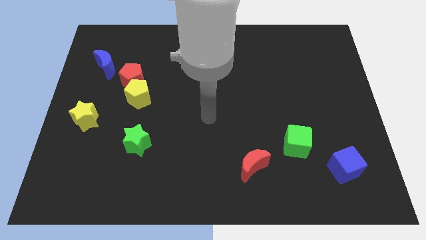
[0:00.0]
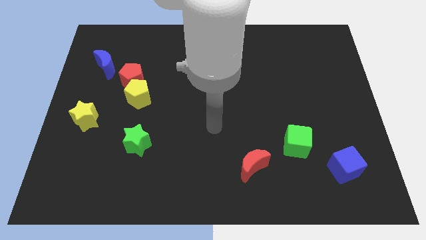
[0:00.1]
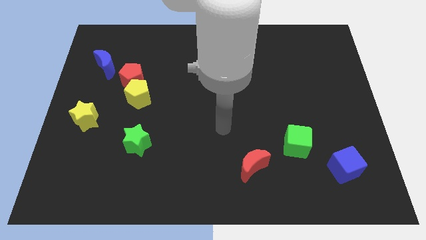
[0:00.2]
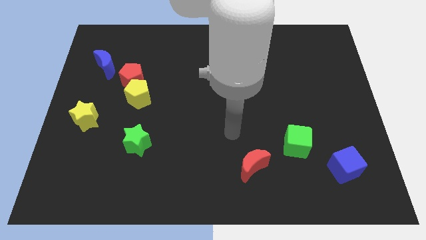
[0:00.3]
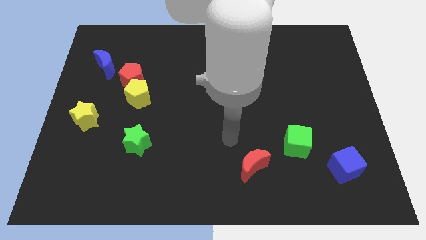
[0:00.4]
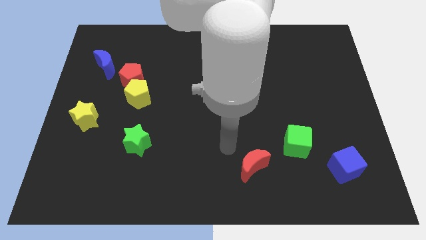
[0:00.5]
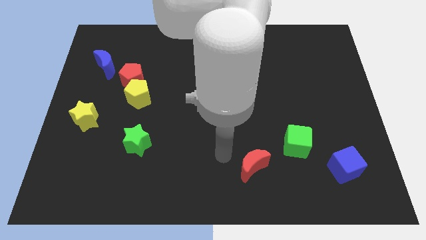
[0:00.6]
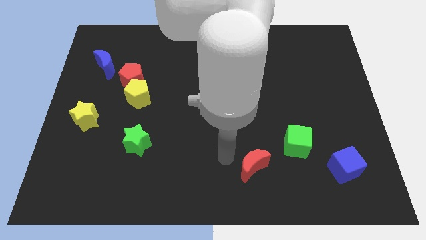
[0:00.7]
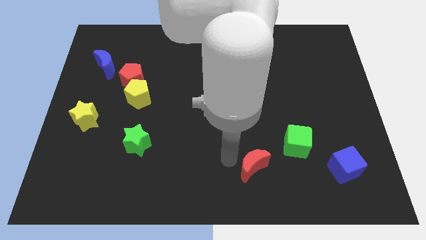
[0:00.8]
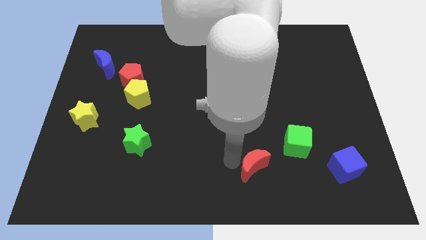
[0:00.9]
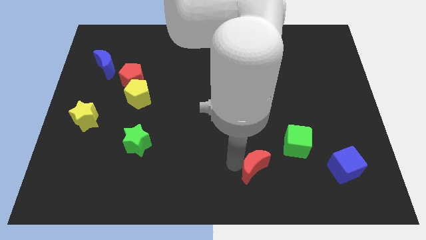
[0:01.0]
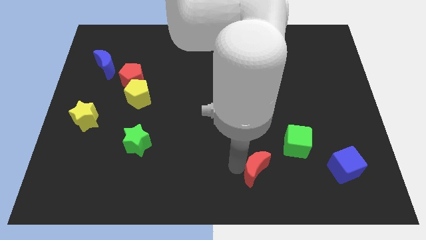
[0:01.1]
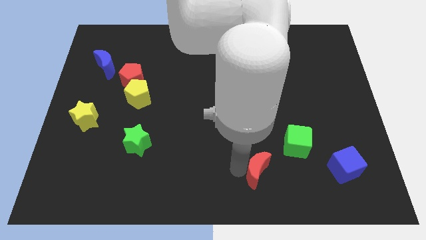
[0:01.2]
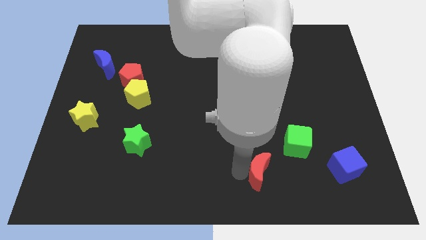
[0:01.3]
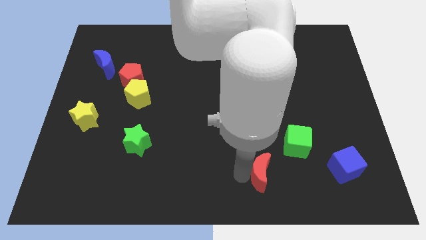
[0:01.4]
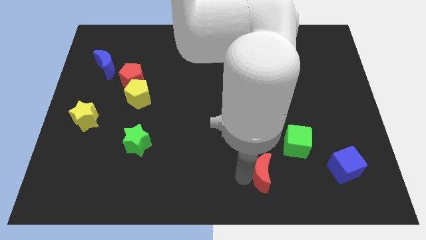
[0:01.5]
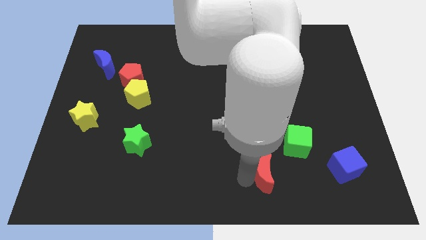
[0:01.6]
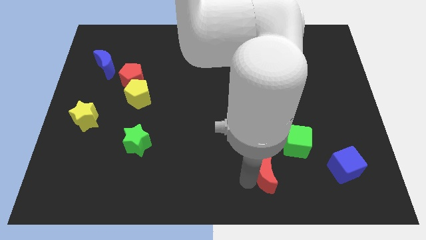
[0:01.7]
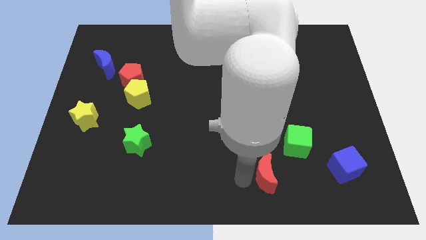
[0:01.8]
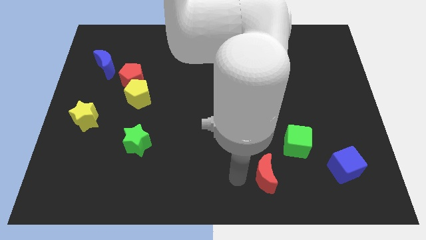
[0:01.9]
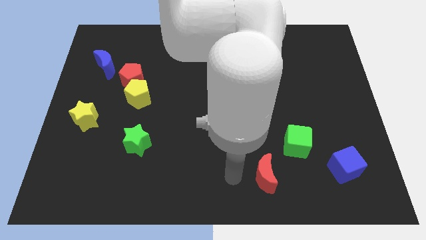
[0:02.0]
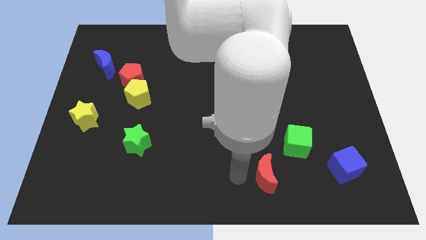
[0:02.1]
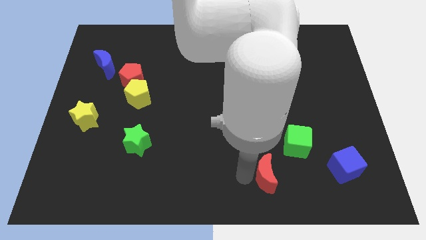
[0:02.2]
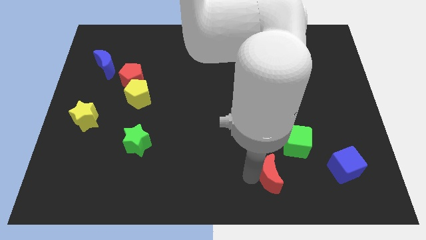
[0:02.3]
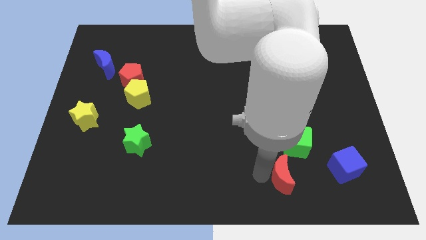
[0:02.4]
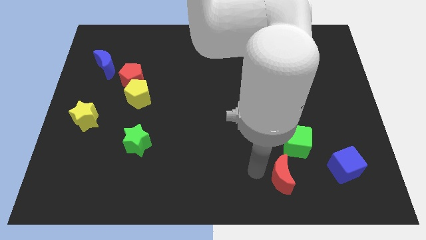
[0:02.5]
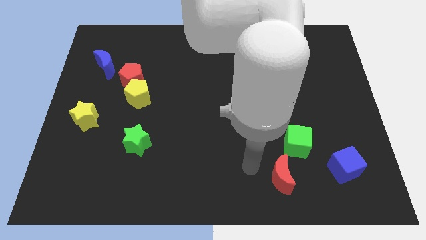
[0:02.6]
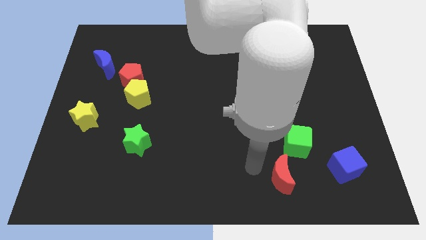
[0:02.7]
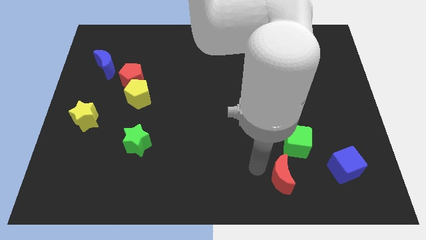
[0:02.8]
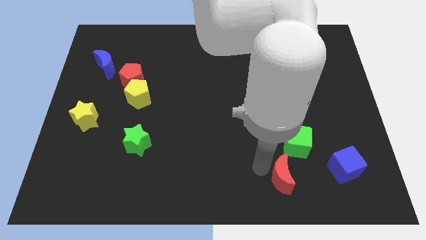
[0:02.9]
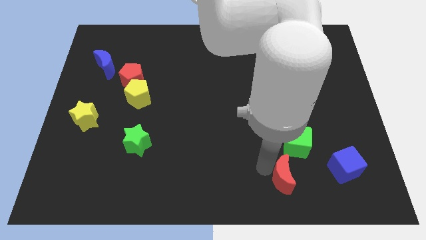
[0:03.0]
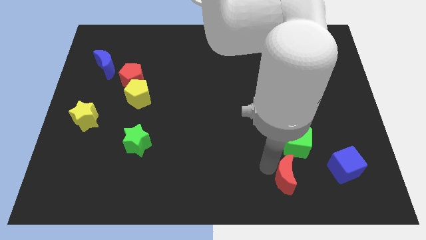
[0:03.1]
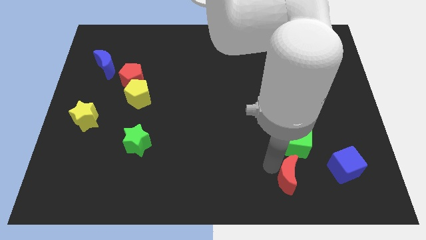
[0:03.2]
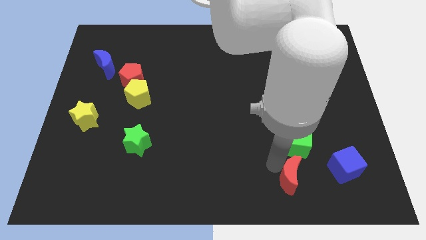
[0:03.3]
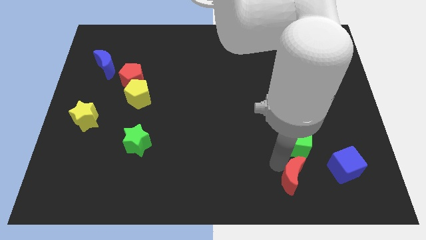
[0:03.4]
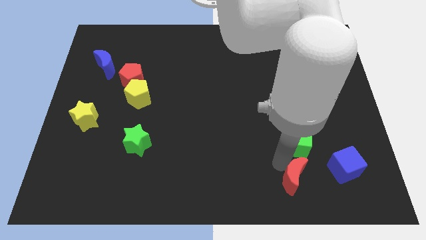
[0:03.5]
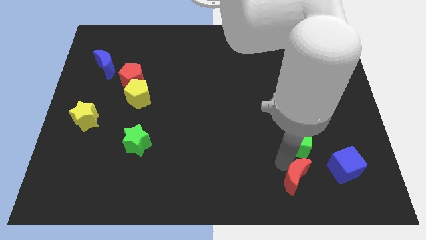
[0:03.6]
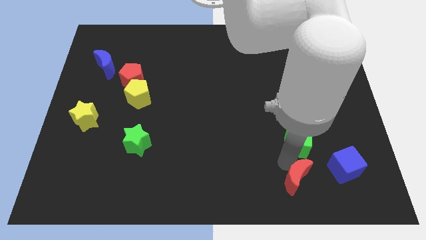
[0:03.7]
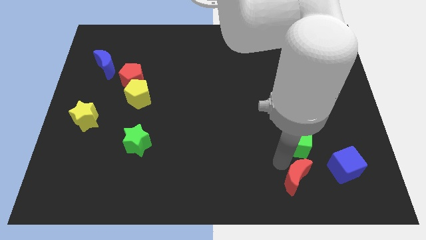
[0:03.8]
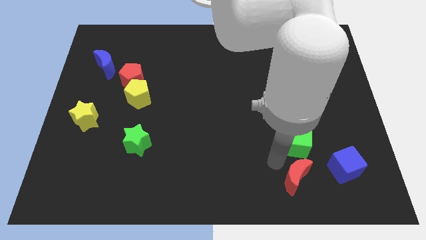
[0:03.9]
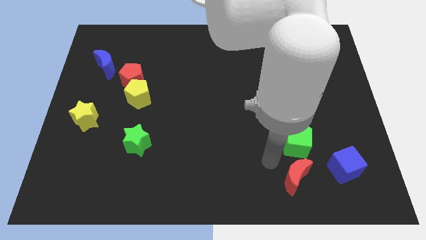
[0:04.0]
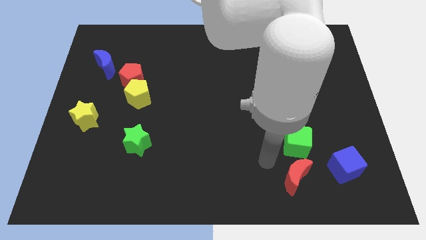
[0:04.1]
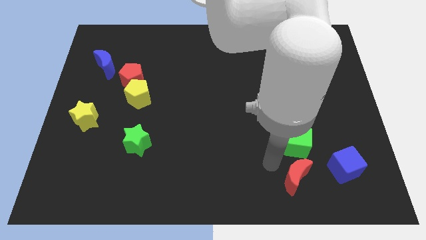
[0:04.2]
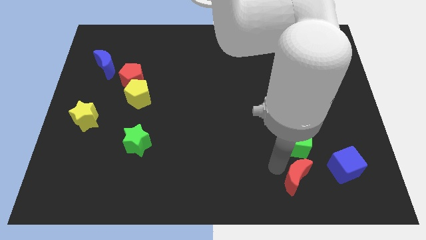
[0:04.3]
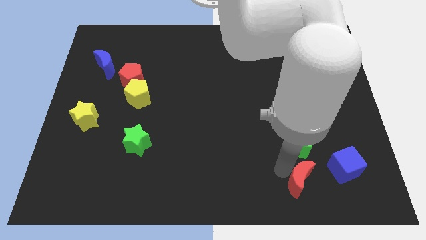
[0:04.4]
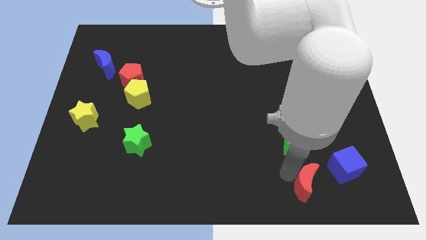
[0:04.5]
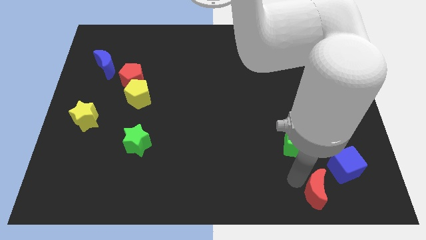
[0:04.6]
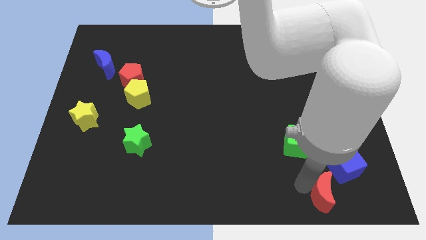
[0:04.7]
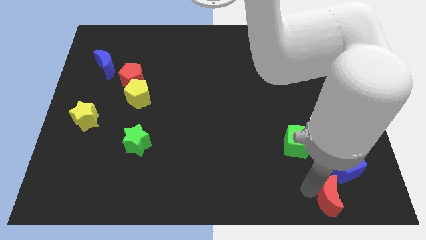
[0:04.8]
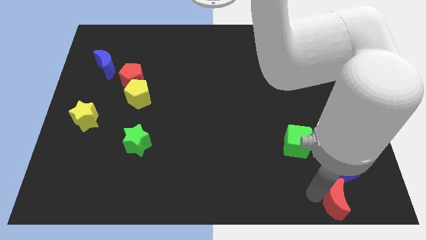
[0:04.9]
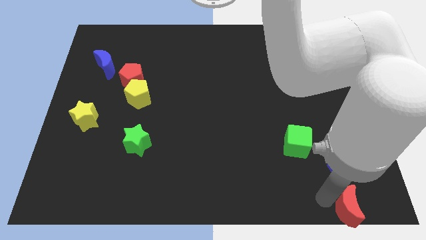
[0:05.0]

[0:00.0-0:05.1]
push the red moon to the bottom right of the board

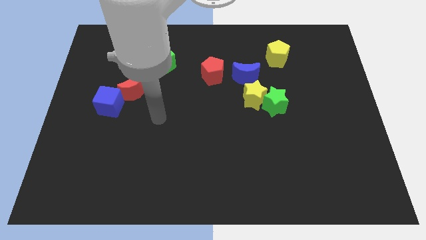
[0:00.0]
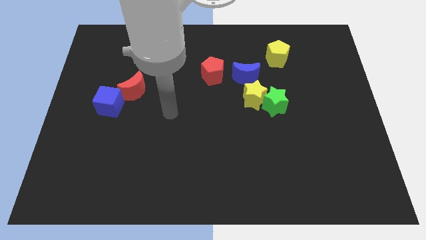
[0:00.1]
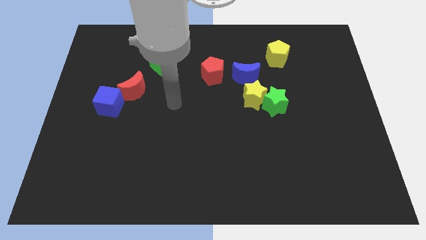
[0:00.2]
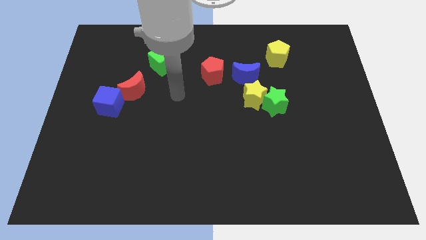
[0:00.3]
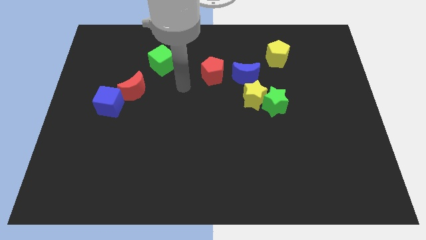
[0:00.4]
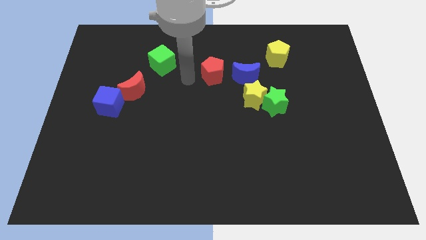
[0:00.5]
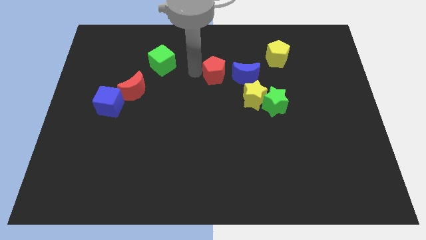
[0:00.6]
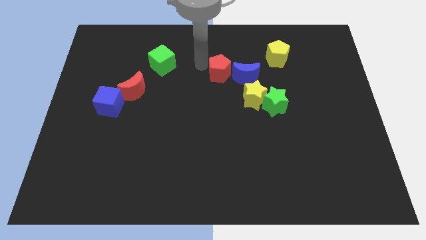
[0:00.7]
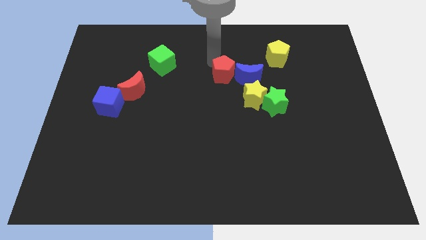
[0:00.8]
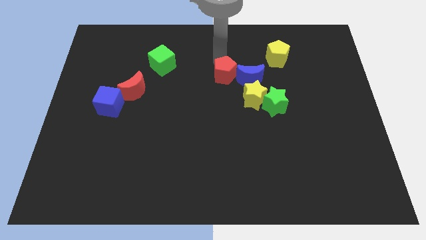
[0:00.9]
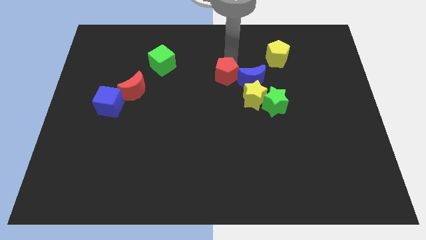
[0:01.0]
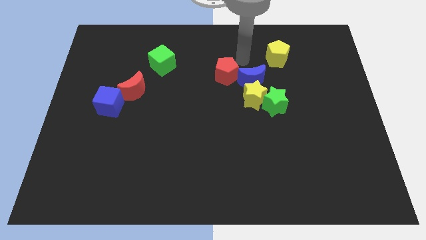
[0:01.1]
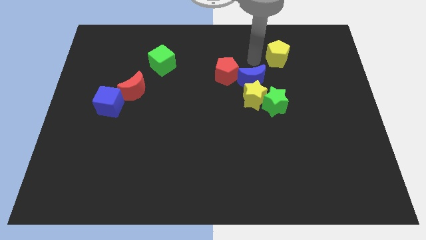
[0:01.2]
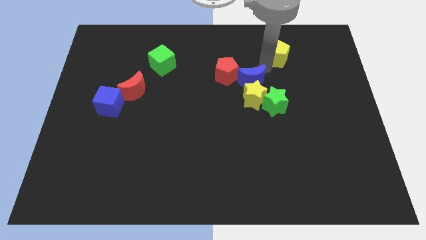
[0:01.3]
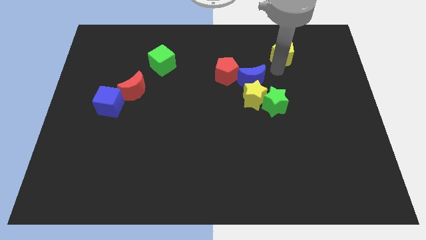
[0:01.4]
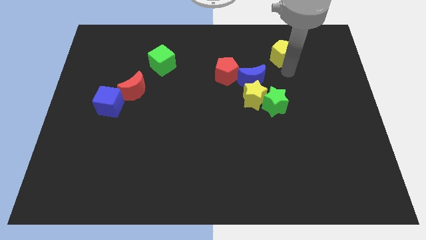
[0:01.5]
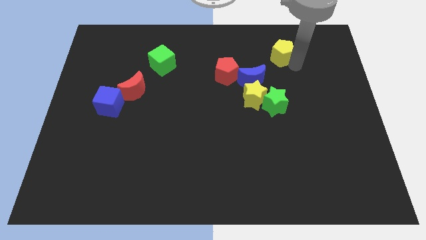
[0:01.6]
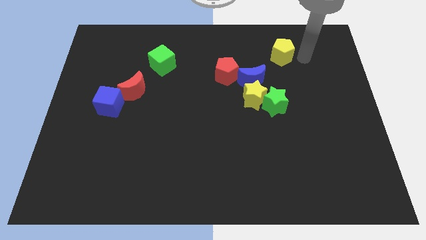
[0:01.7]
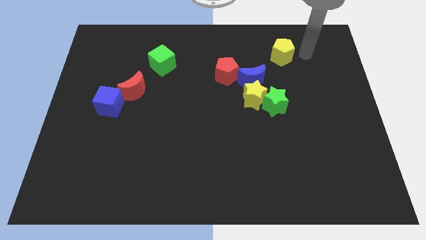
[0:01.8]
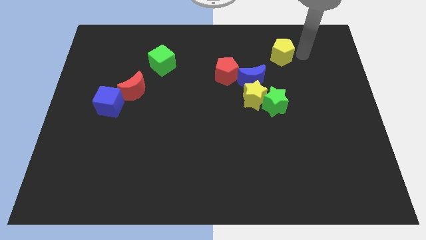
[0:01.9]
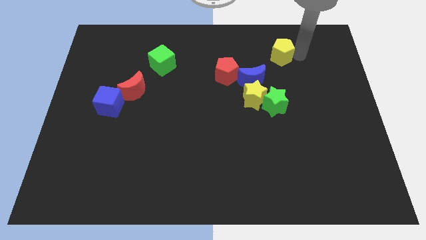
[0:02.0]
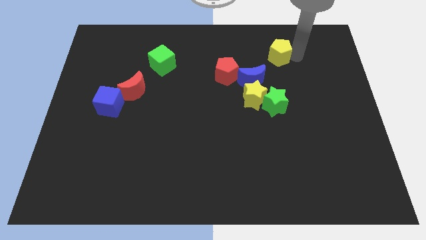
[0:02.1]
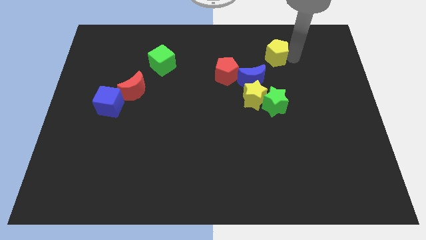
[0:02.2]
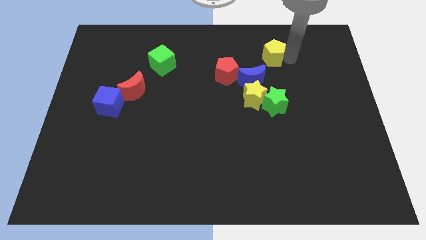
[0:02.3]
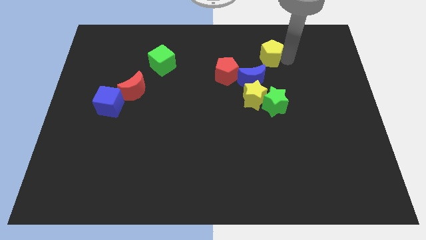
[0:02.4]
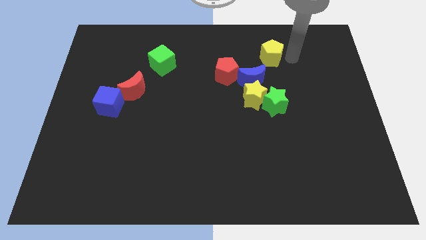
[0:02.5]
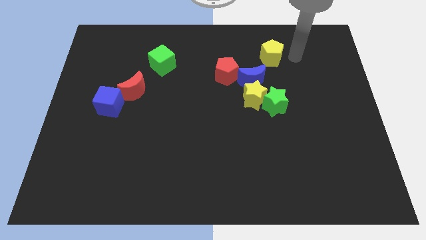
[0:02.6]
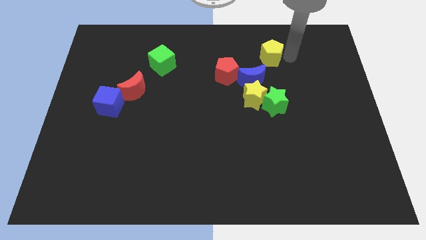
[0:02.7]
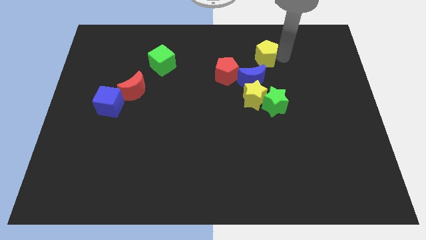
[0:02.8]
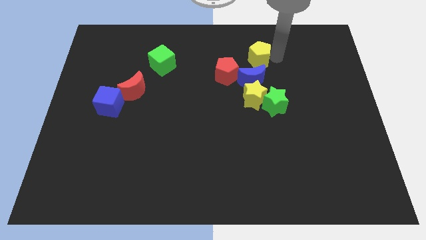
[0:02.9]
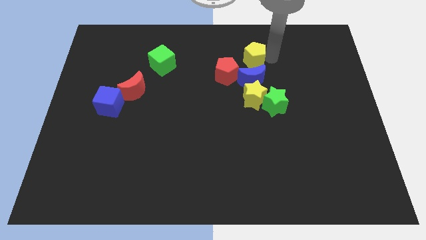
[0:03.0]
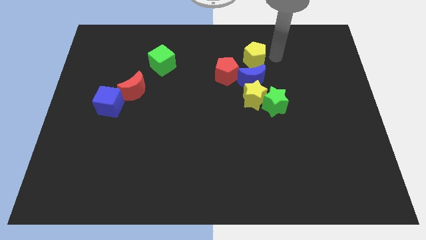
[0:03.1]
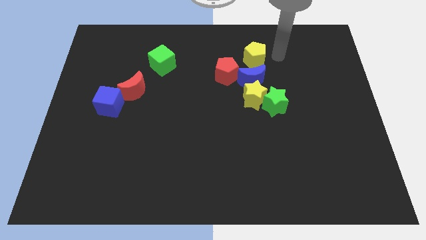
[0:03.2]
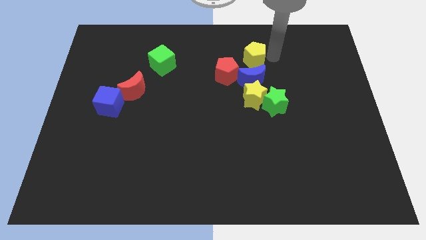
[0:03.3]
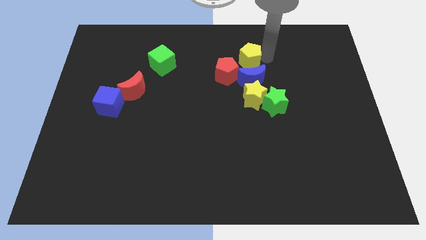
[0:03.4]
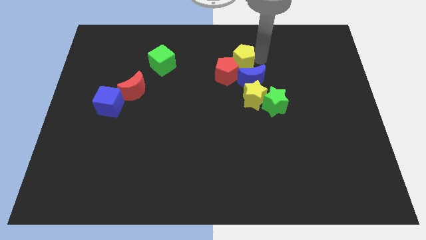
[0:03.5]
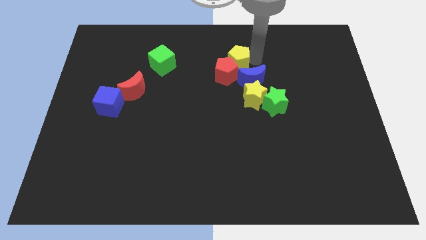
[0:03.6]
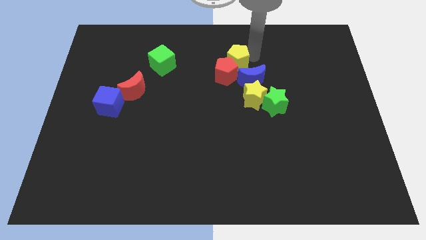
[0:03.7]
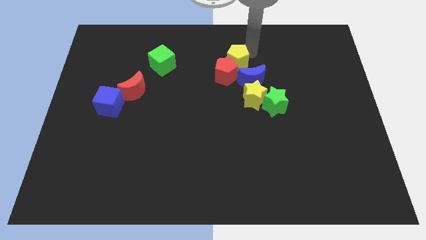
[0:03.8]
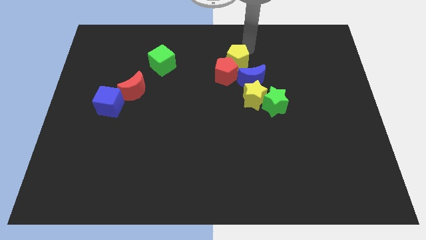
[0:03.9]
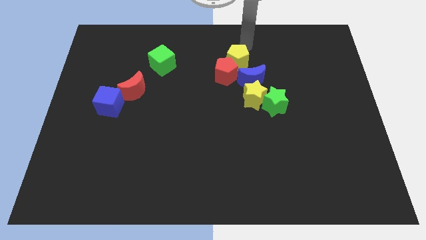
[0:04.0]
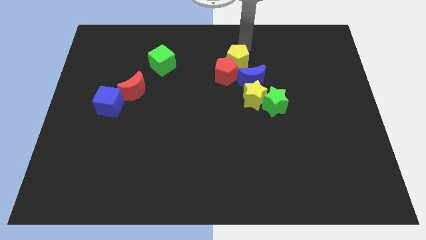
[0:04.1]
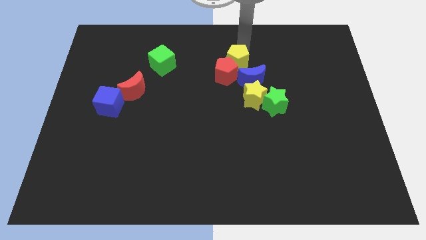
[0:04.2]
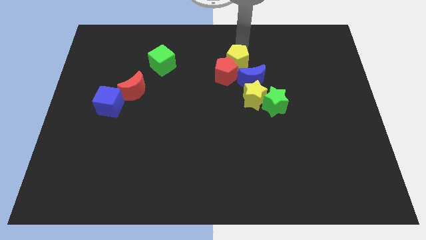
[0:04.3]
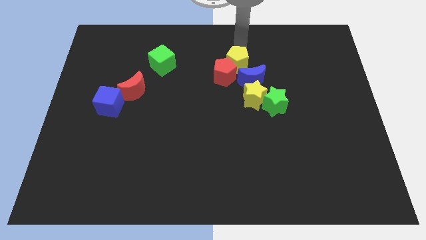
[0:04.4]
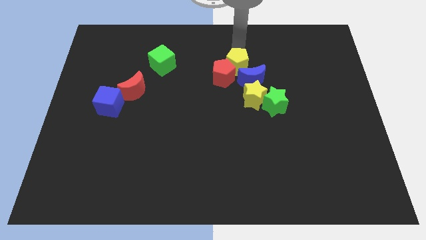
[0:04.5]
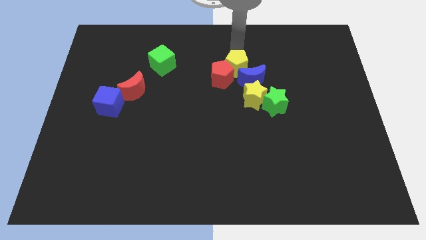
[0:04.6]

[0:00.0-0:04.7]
put the yellow pentagon to the middle of the board
